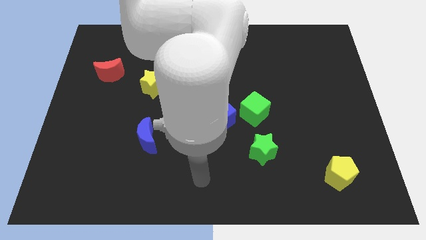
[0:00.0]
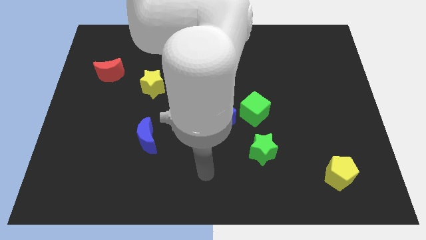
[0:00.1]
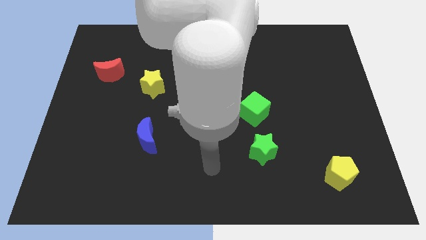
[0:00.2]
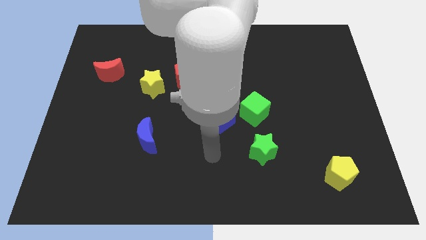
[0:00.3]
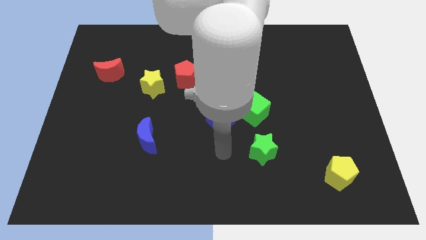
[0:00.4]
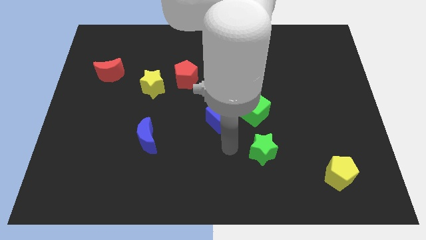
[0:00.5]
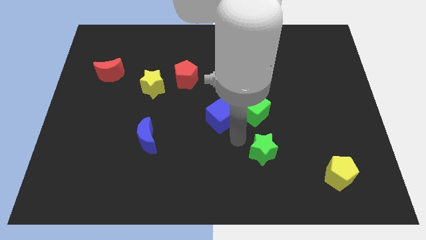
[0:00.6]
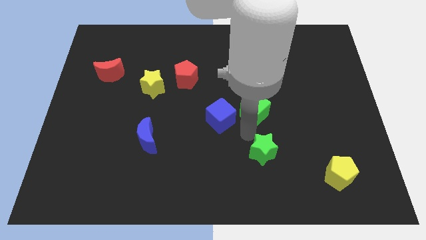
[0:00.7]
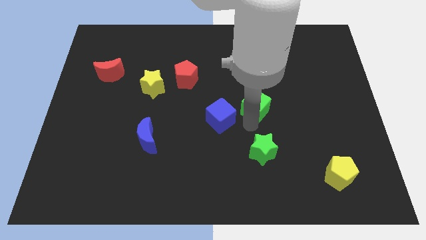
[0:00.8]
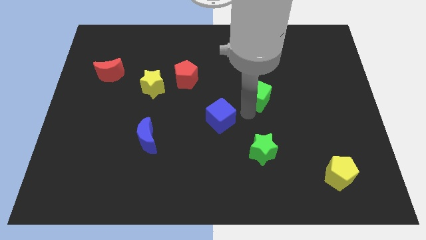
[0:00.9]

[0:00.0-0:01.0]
move the blue cube away from the green cube

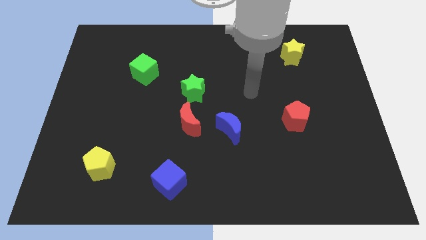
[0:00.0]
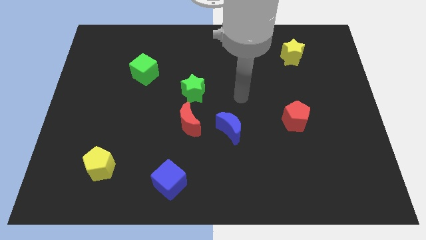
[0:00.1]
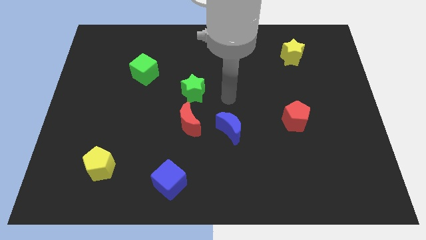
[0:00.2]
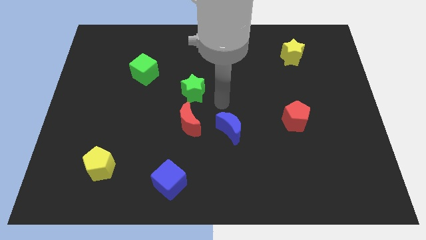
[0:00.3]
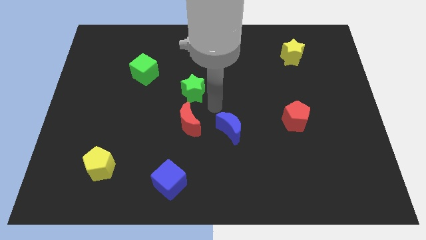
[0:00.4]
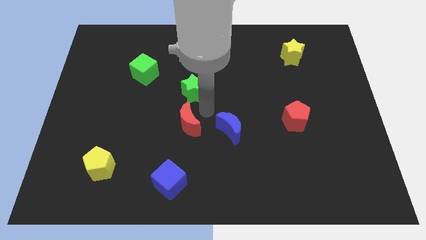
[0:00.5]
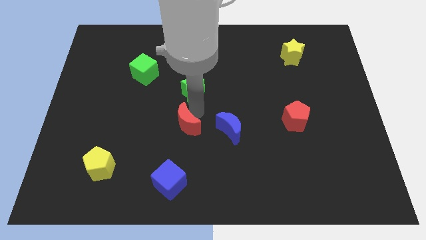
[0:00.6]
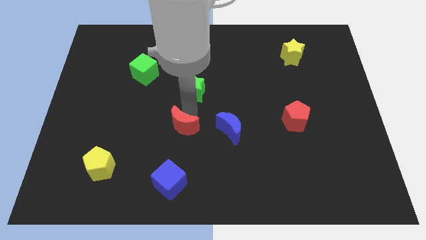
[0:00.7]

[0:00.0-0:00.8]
pull the green star apart from the red moon

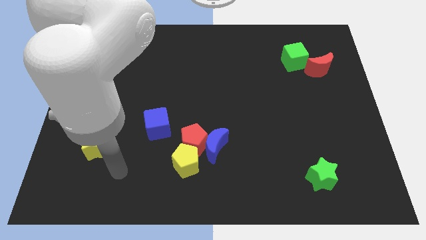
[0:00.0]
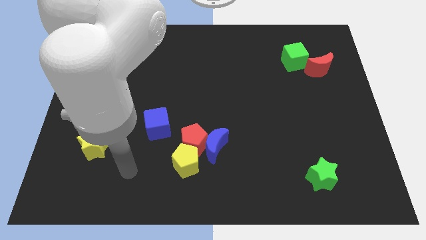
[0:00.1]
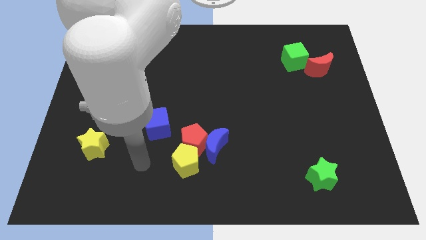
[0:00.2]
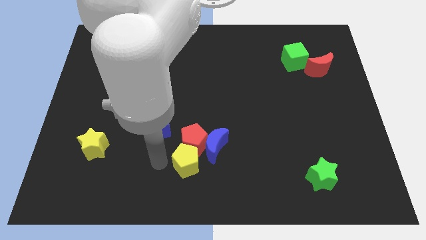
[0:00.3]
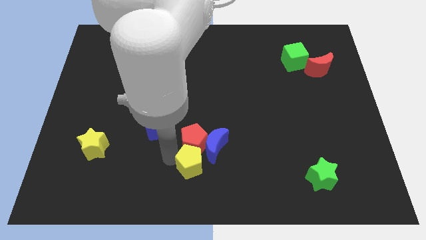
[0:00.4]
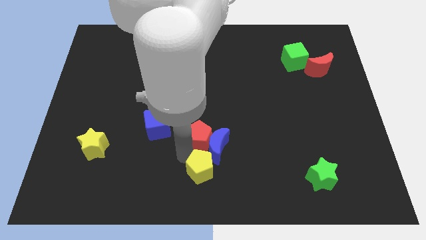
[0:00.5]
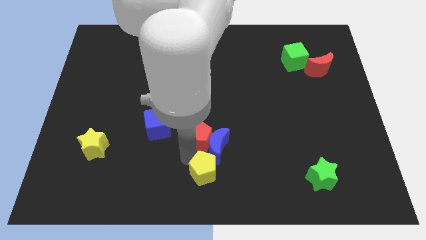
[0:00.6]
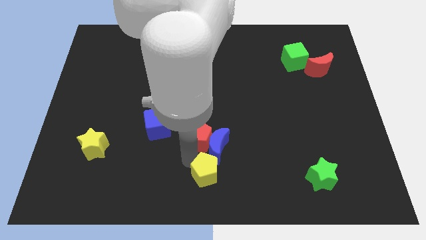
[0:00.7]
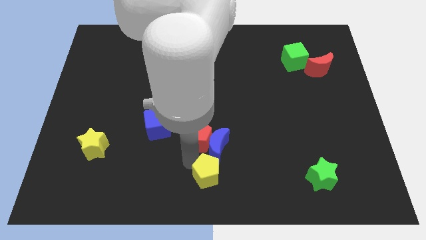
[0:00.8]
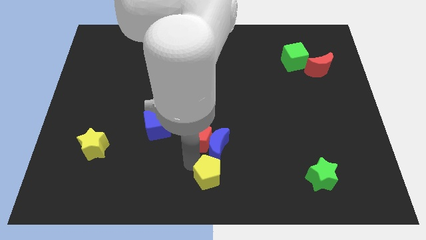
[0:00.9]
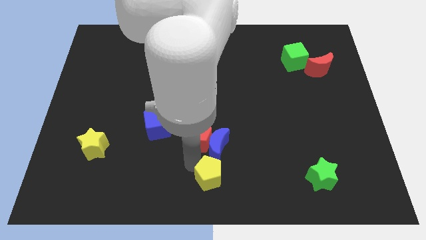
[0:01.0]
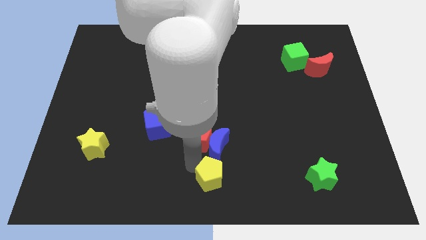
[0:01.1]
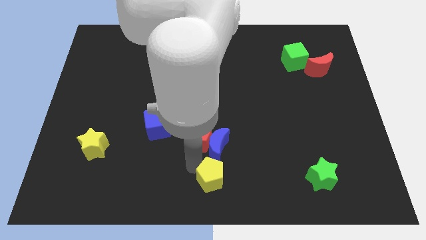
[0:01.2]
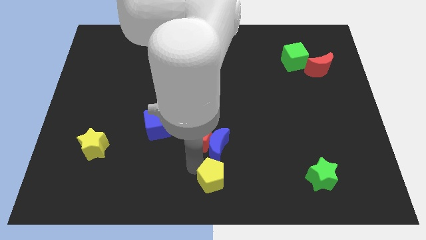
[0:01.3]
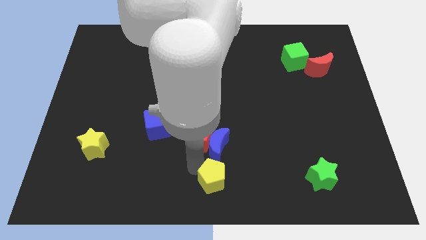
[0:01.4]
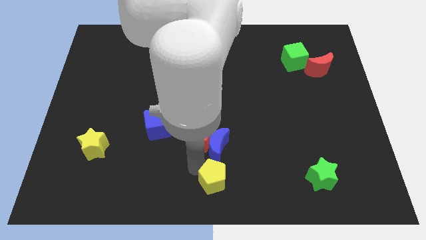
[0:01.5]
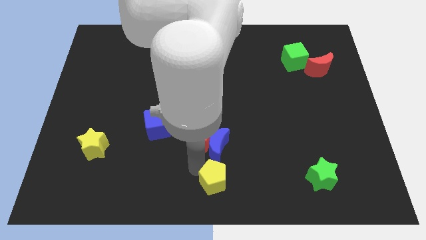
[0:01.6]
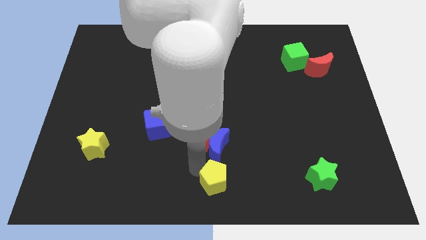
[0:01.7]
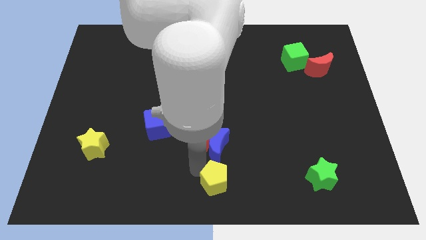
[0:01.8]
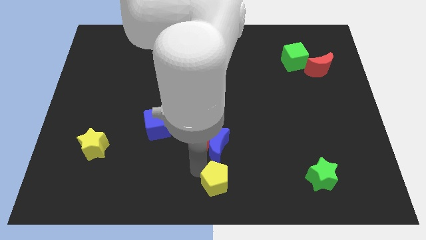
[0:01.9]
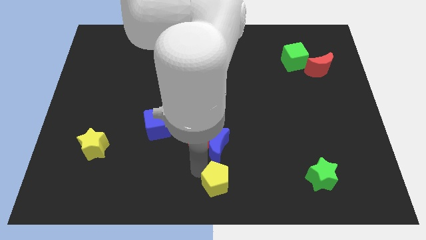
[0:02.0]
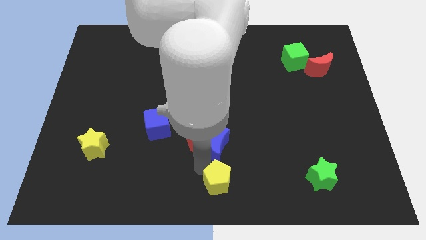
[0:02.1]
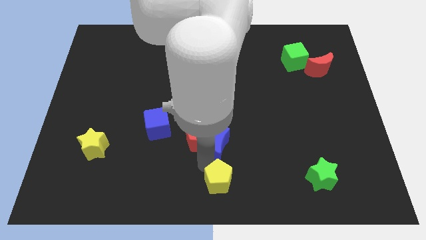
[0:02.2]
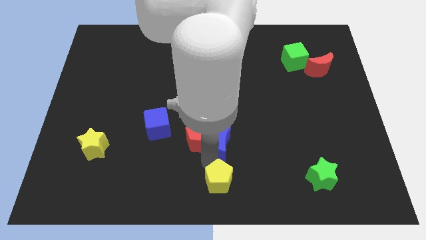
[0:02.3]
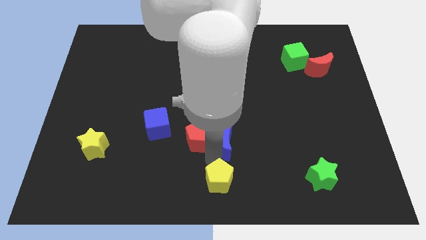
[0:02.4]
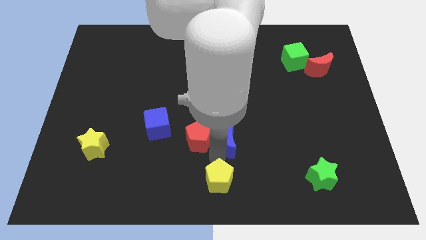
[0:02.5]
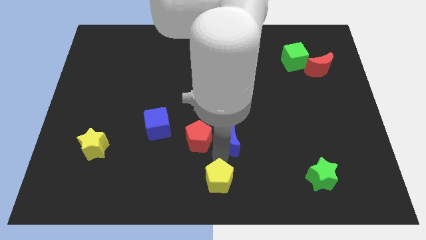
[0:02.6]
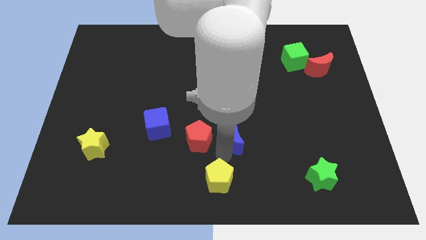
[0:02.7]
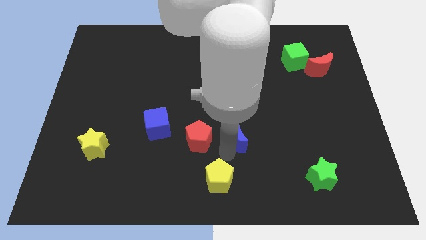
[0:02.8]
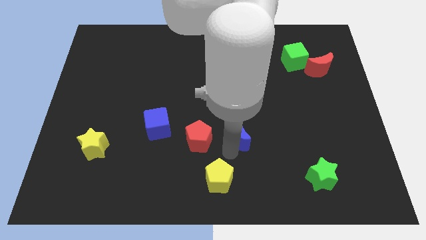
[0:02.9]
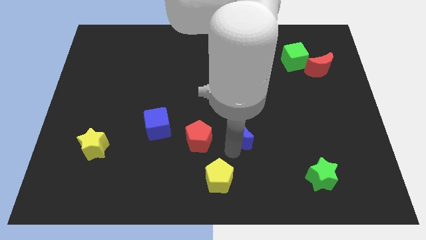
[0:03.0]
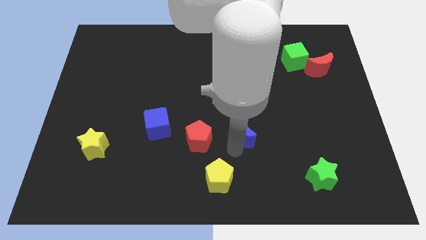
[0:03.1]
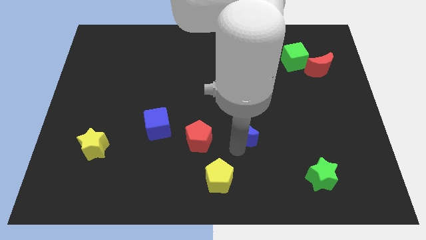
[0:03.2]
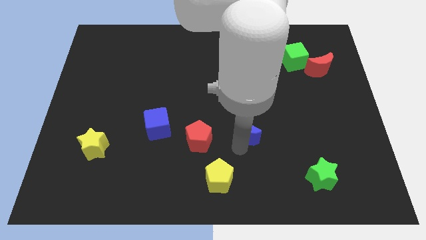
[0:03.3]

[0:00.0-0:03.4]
separate the blue moon from the red pentagon and yellow pentagon

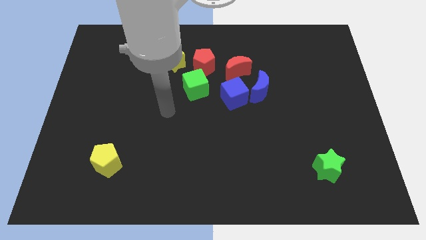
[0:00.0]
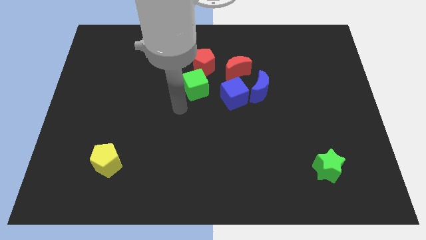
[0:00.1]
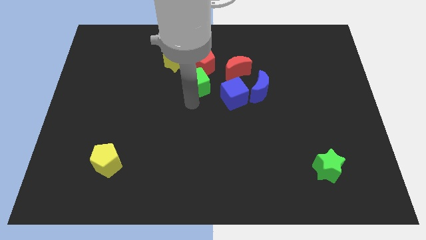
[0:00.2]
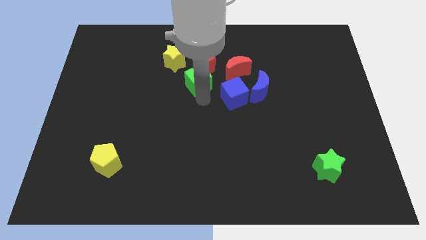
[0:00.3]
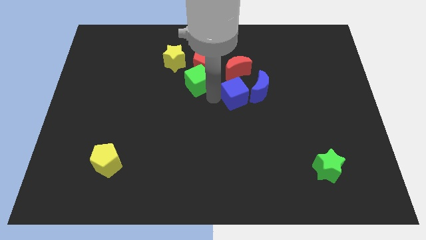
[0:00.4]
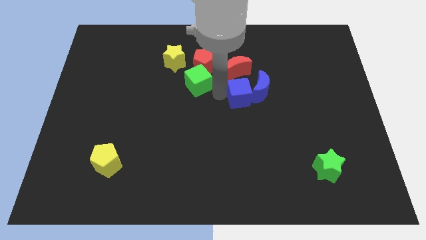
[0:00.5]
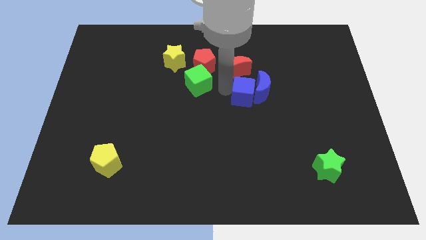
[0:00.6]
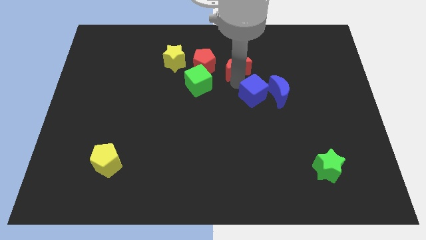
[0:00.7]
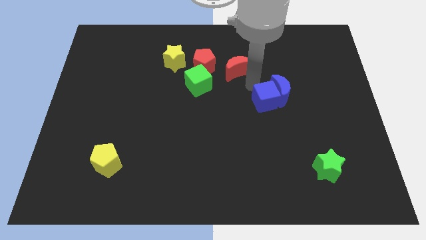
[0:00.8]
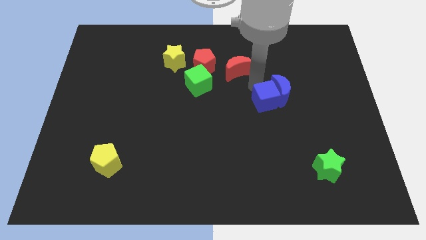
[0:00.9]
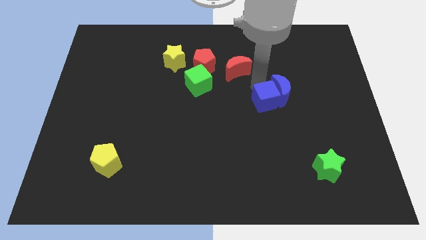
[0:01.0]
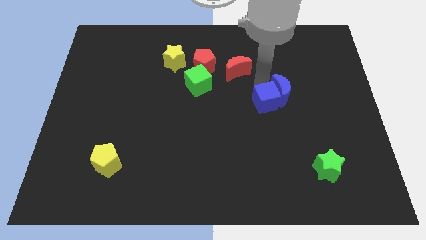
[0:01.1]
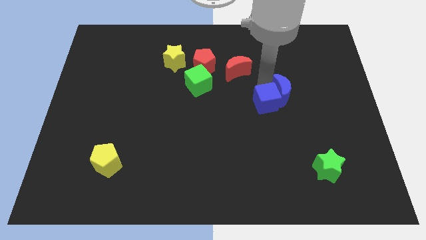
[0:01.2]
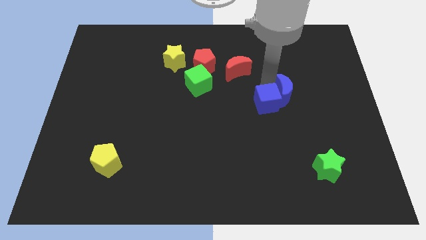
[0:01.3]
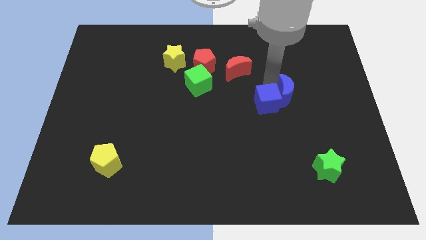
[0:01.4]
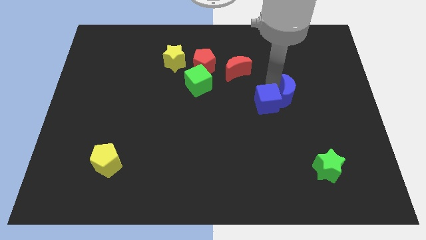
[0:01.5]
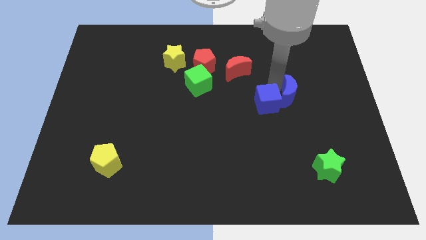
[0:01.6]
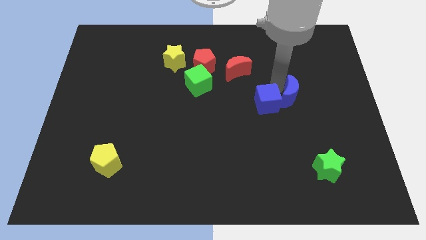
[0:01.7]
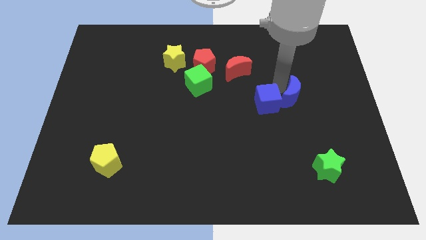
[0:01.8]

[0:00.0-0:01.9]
move the blue moon away from the blue cube and red moon

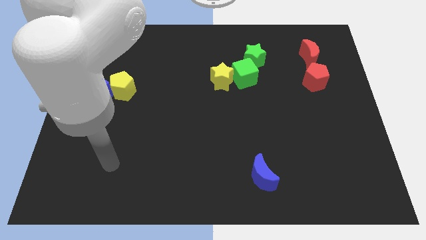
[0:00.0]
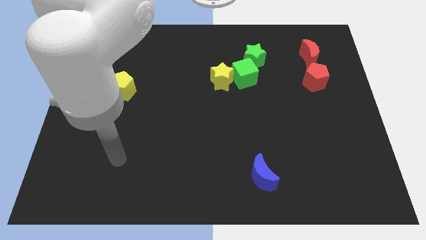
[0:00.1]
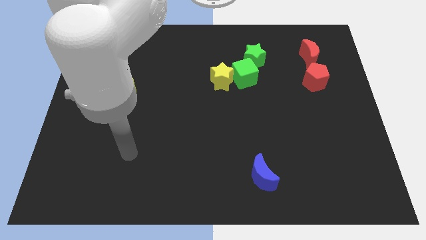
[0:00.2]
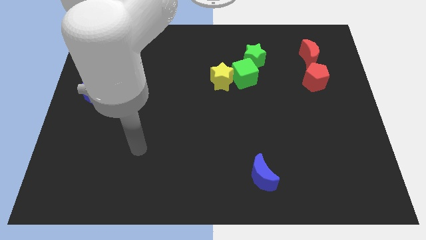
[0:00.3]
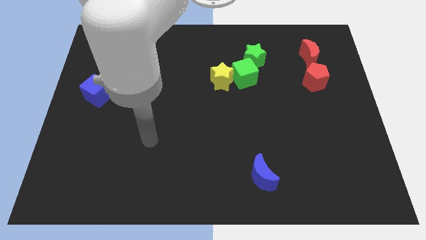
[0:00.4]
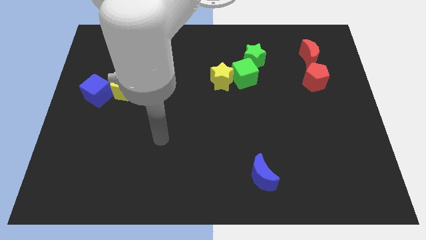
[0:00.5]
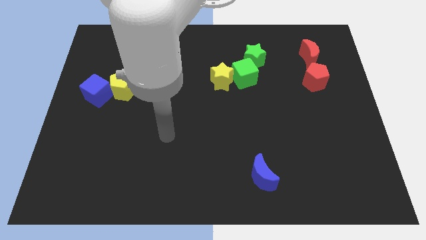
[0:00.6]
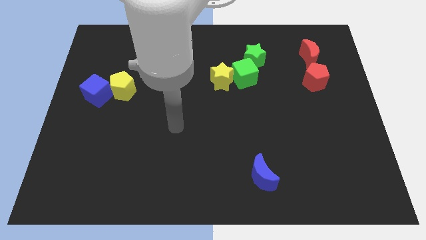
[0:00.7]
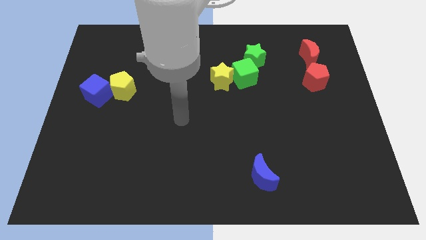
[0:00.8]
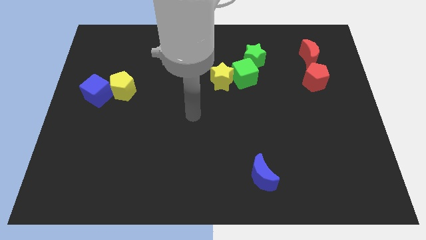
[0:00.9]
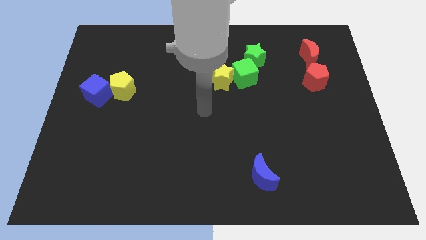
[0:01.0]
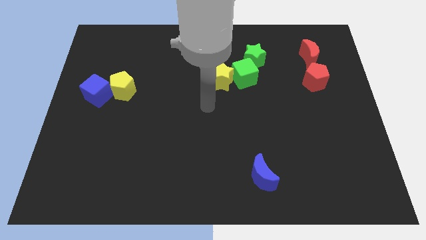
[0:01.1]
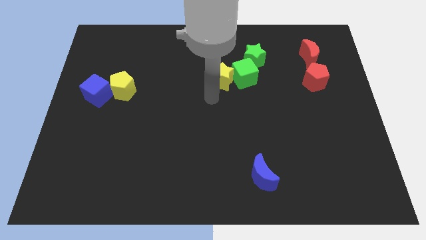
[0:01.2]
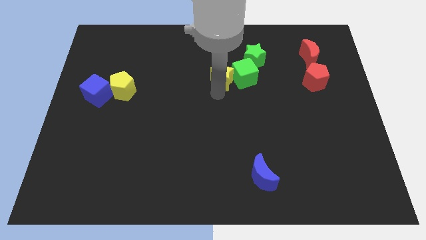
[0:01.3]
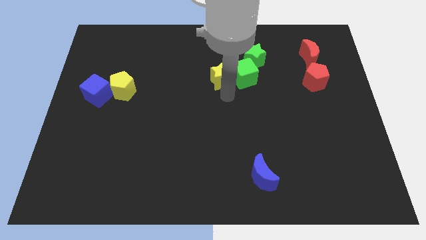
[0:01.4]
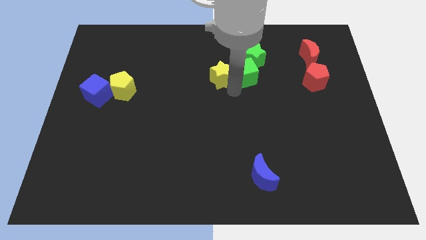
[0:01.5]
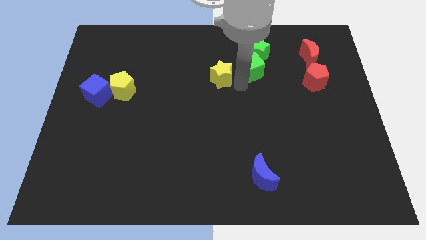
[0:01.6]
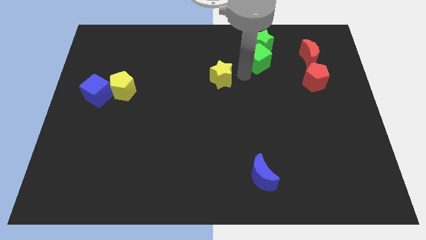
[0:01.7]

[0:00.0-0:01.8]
separate the yellow star from the green cube

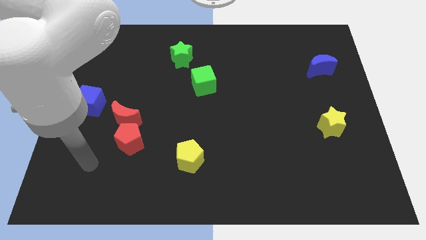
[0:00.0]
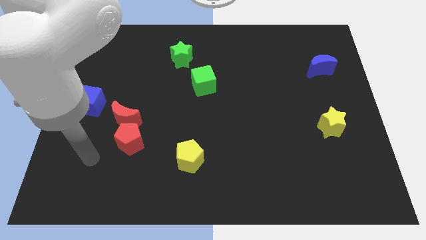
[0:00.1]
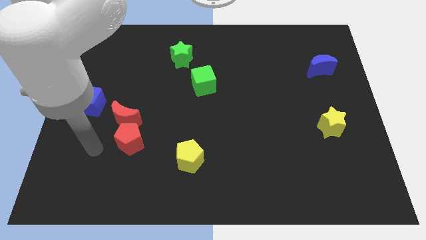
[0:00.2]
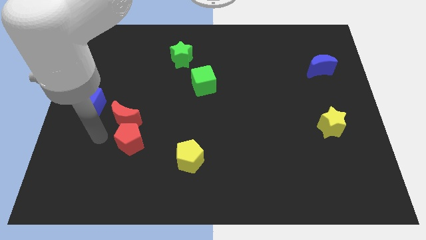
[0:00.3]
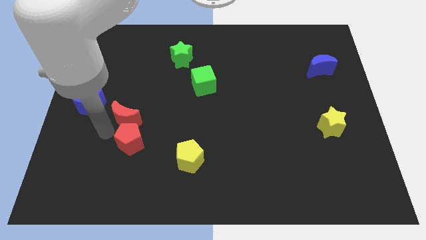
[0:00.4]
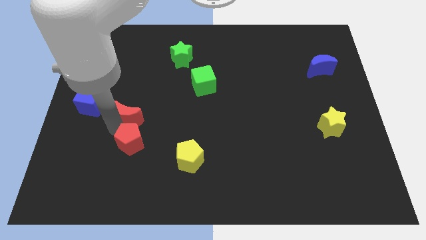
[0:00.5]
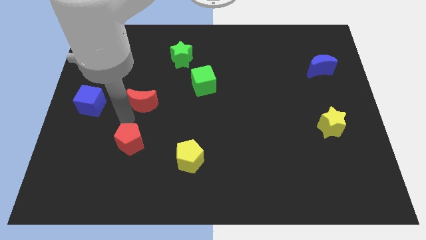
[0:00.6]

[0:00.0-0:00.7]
separate the red pentagon from the red moon
